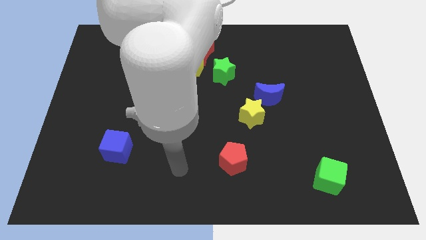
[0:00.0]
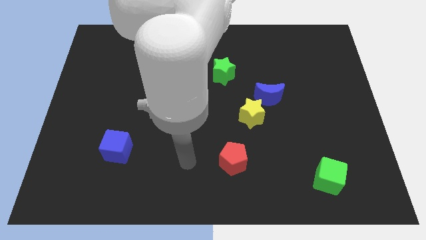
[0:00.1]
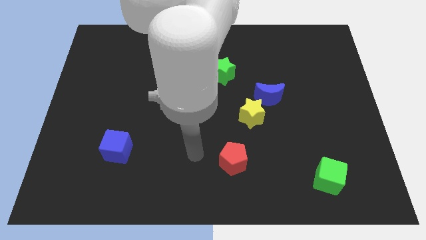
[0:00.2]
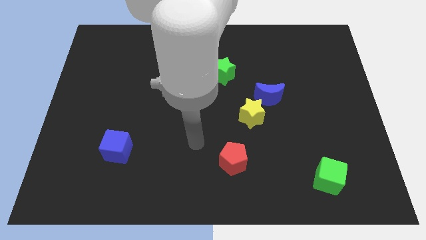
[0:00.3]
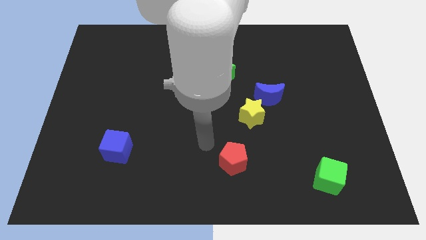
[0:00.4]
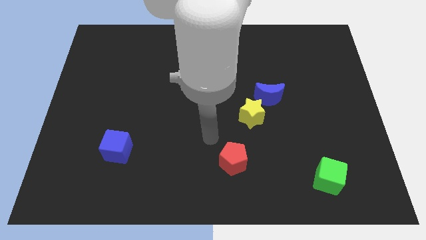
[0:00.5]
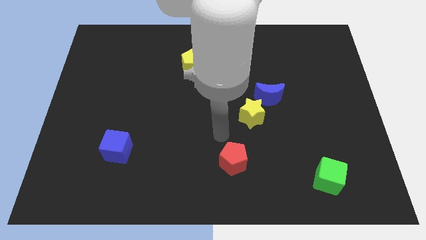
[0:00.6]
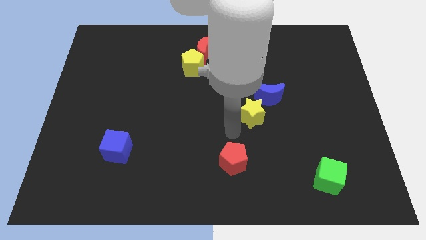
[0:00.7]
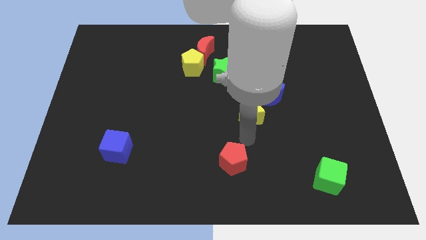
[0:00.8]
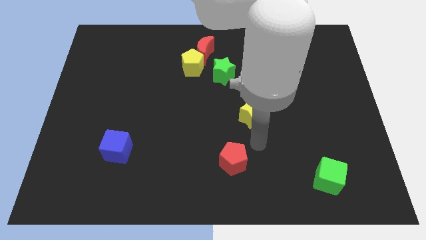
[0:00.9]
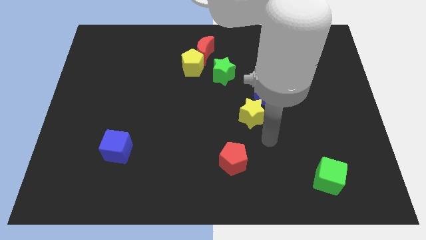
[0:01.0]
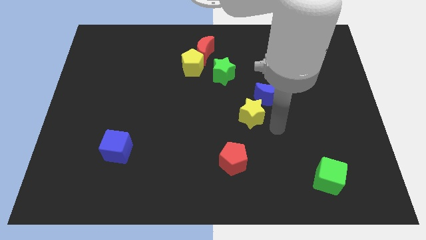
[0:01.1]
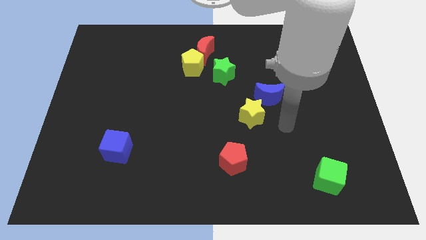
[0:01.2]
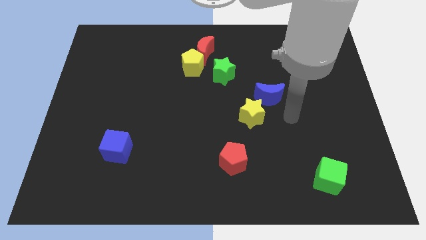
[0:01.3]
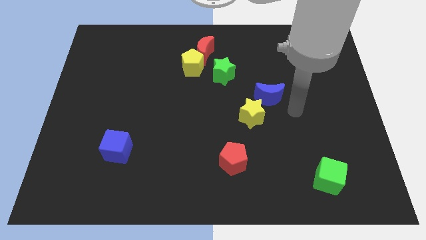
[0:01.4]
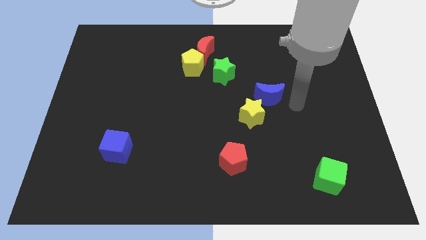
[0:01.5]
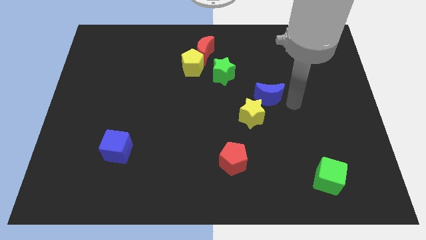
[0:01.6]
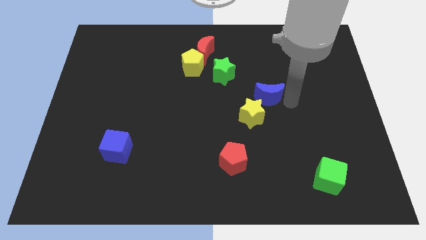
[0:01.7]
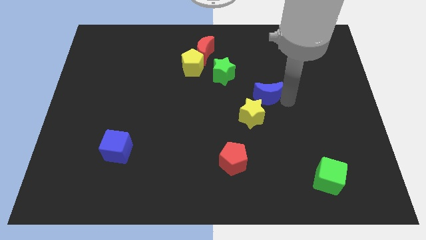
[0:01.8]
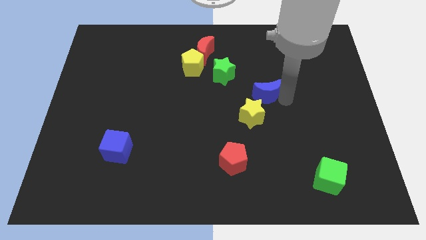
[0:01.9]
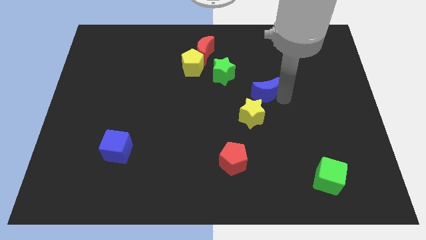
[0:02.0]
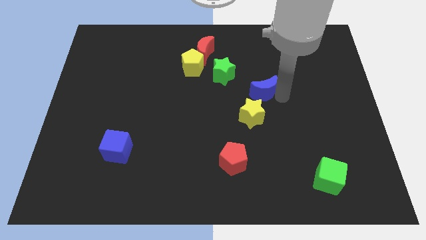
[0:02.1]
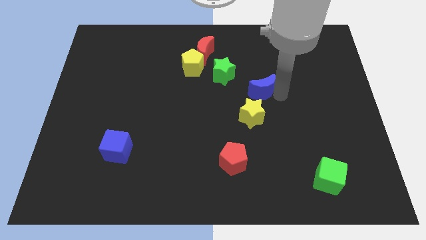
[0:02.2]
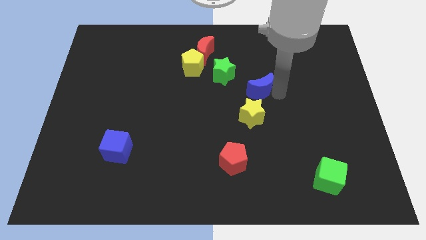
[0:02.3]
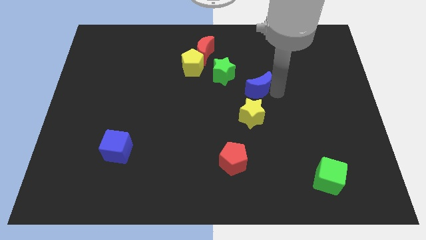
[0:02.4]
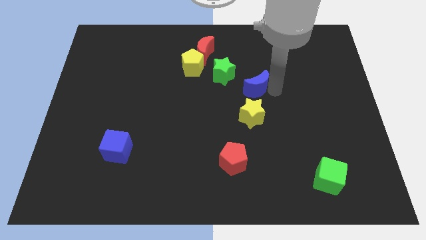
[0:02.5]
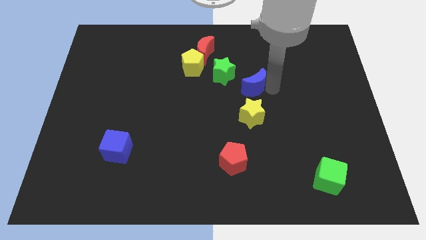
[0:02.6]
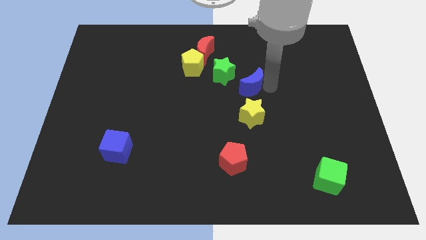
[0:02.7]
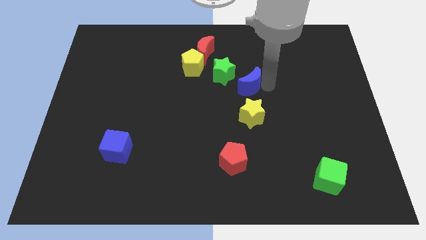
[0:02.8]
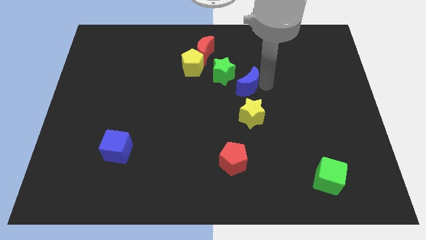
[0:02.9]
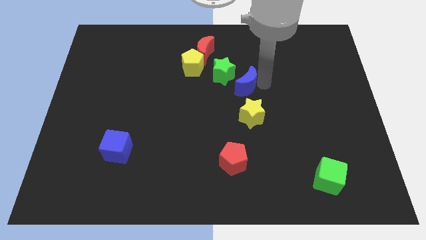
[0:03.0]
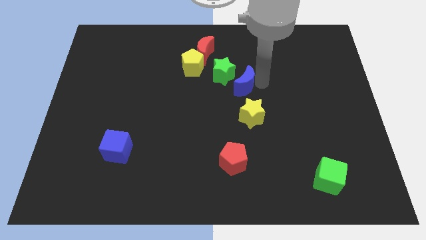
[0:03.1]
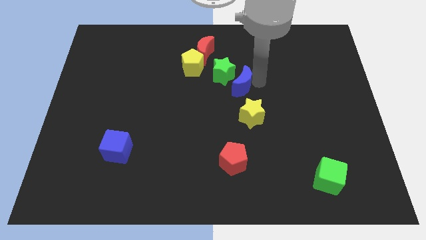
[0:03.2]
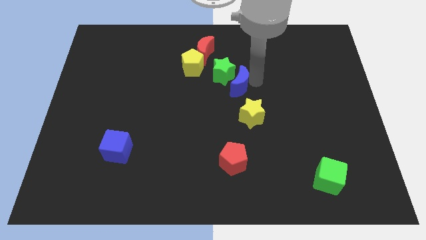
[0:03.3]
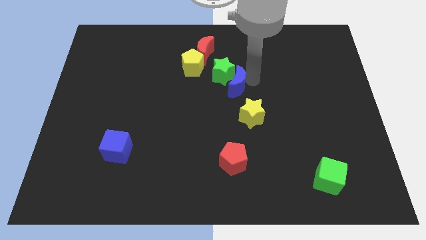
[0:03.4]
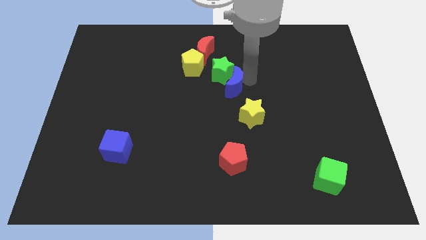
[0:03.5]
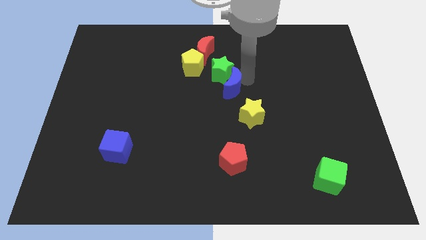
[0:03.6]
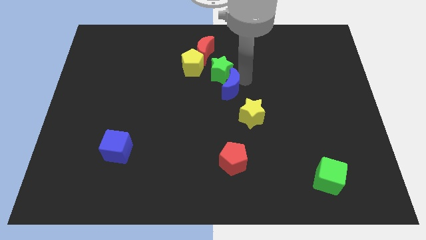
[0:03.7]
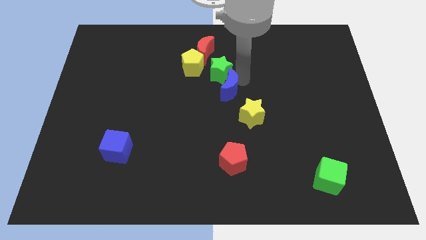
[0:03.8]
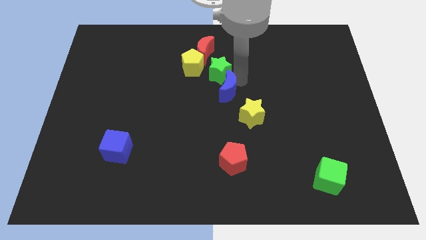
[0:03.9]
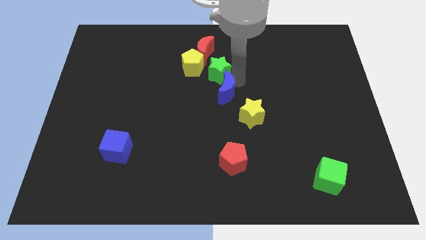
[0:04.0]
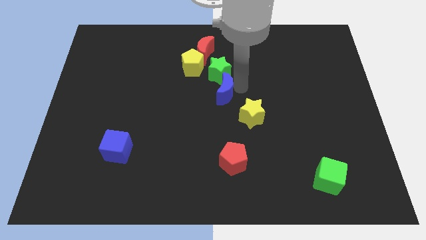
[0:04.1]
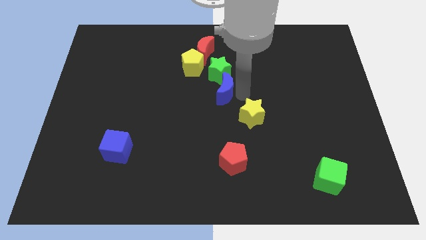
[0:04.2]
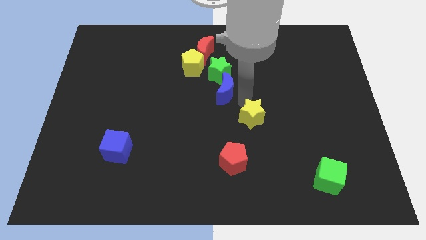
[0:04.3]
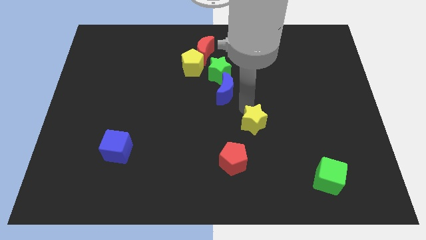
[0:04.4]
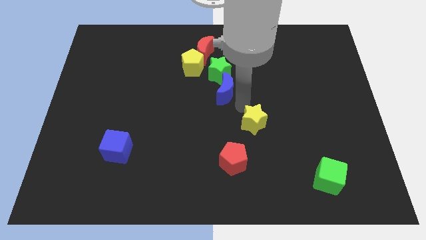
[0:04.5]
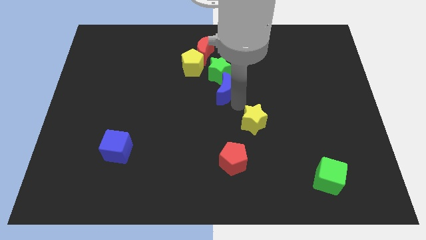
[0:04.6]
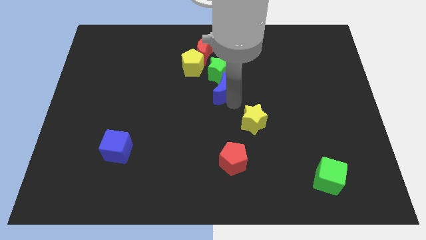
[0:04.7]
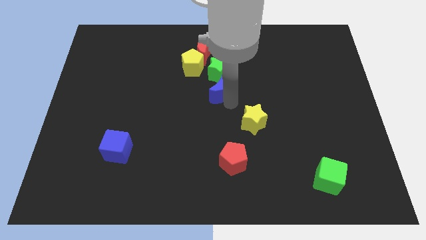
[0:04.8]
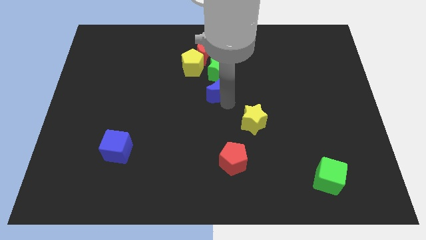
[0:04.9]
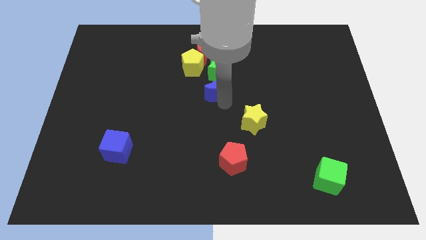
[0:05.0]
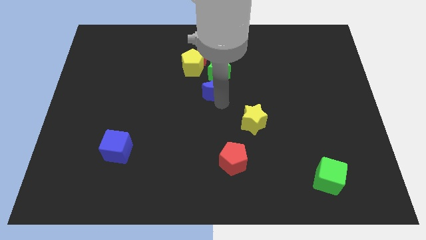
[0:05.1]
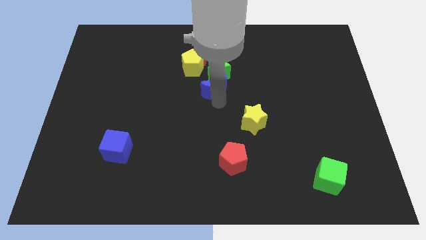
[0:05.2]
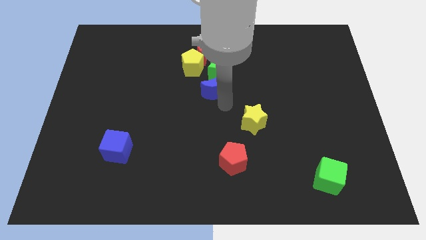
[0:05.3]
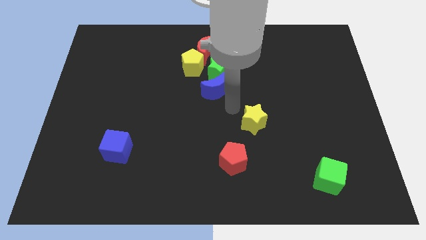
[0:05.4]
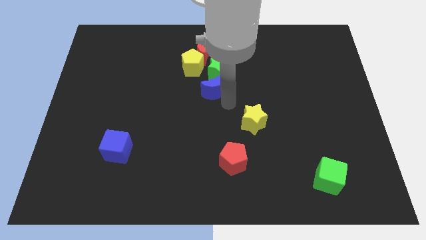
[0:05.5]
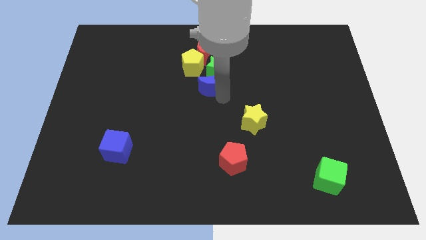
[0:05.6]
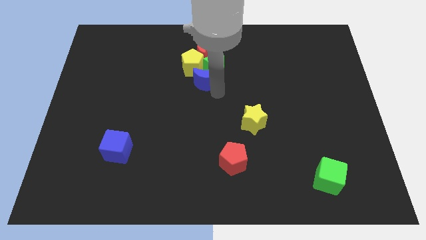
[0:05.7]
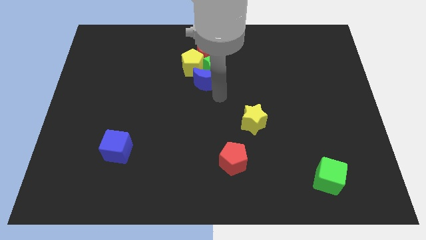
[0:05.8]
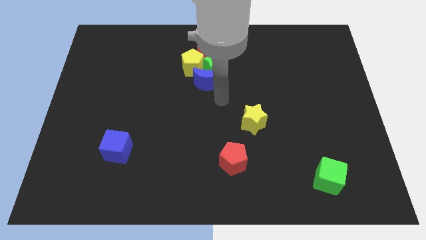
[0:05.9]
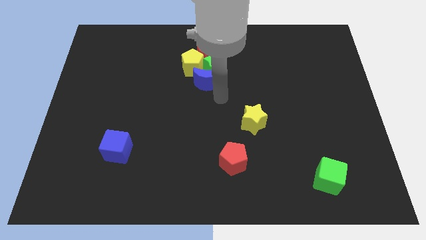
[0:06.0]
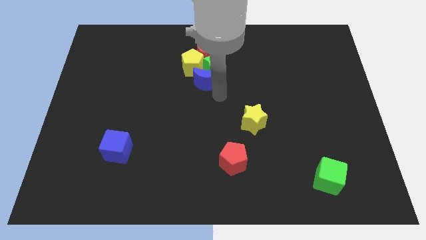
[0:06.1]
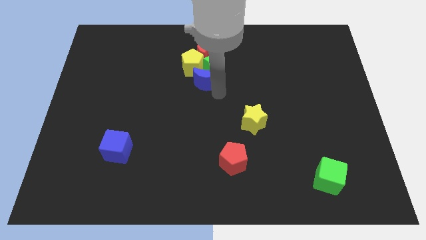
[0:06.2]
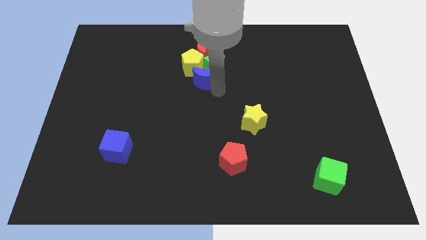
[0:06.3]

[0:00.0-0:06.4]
push the blue moon next to the yellow pentagon

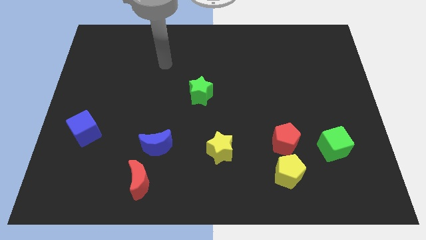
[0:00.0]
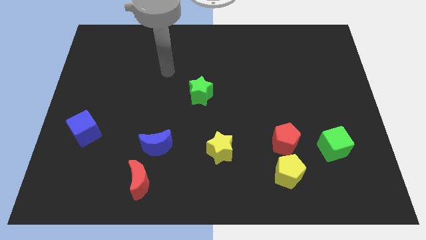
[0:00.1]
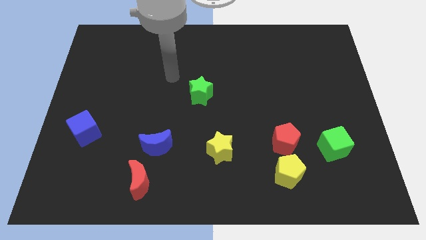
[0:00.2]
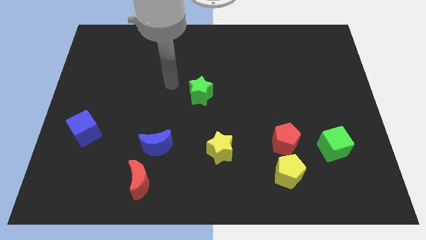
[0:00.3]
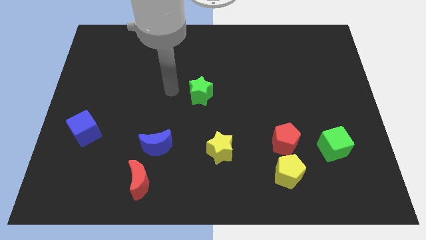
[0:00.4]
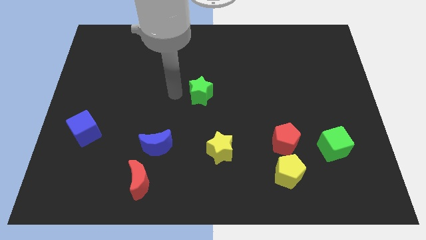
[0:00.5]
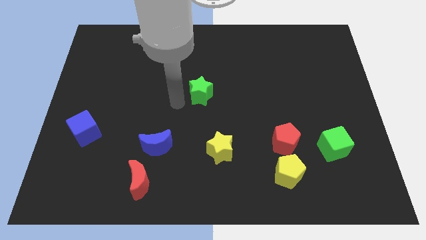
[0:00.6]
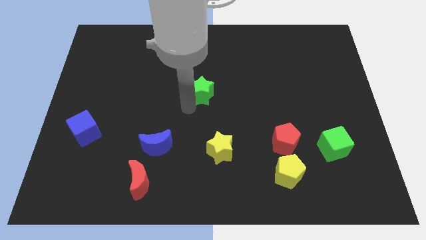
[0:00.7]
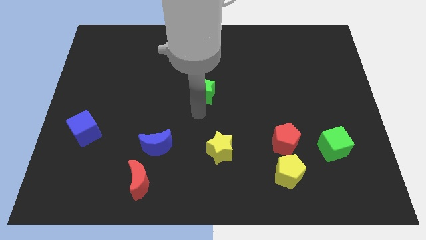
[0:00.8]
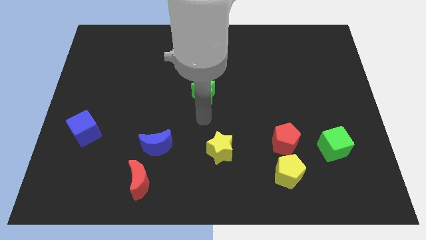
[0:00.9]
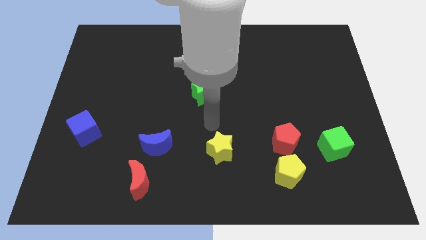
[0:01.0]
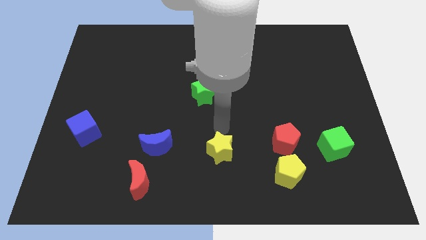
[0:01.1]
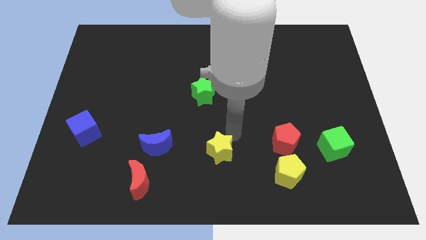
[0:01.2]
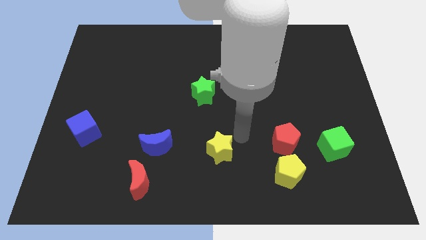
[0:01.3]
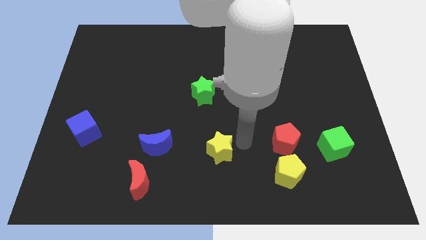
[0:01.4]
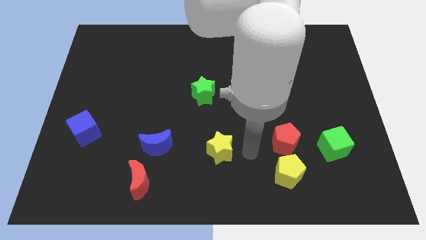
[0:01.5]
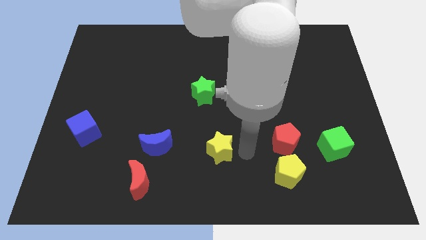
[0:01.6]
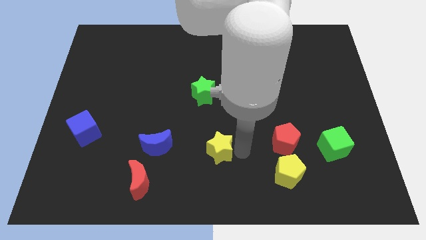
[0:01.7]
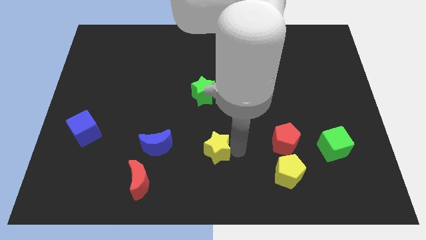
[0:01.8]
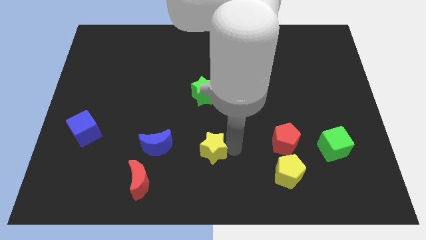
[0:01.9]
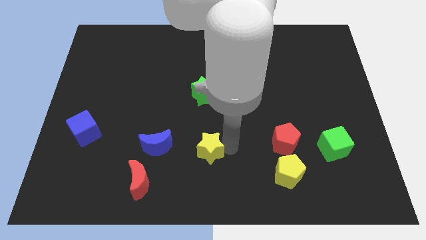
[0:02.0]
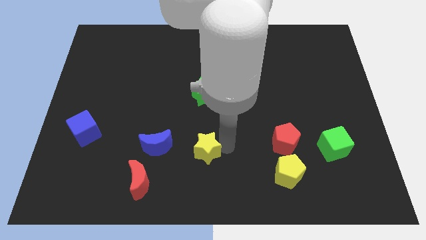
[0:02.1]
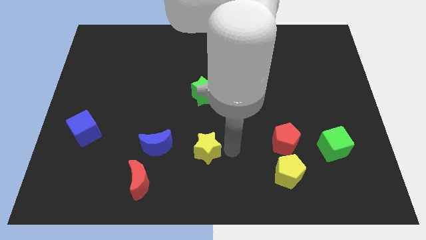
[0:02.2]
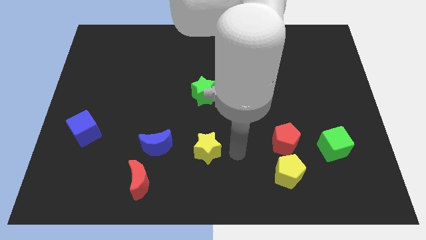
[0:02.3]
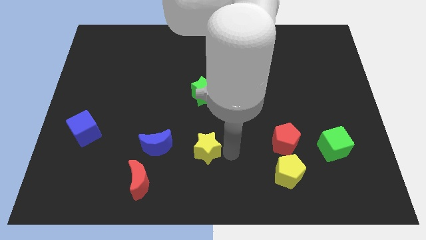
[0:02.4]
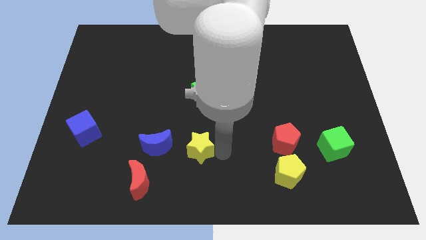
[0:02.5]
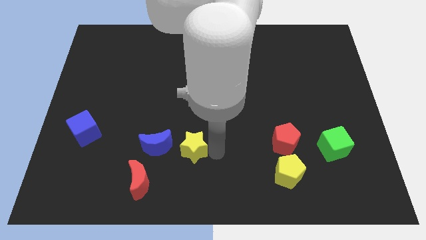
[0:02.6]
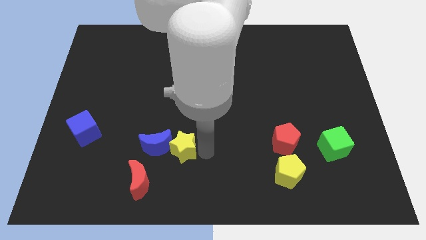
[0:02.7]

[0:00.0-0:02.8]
put the yellow star to the blue moon
